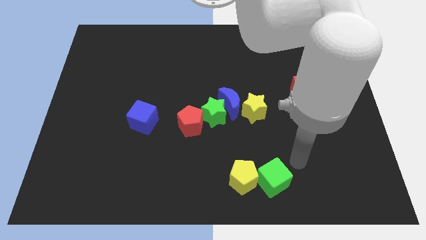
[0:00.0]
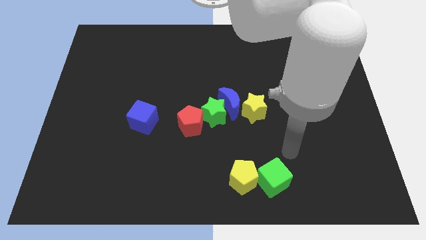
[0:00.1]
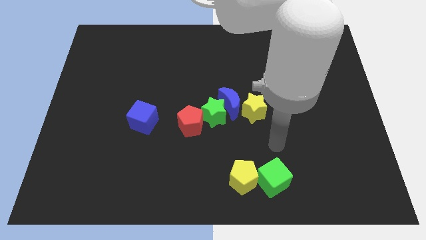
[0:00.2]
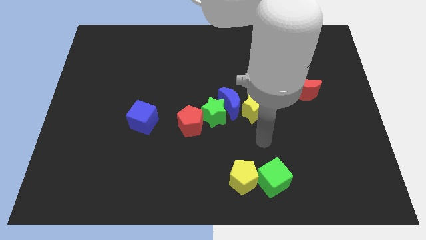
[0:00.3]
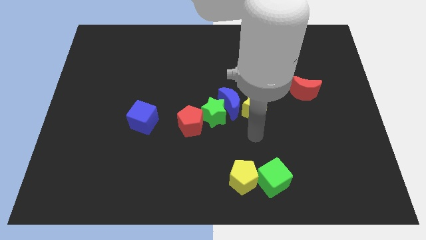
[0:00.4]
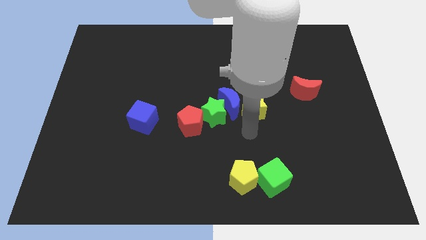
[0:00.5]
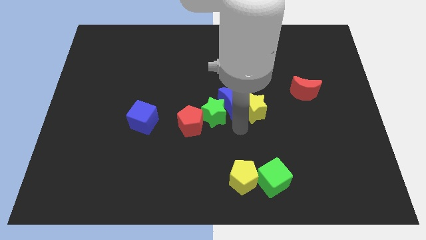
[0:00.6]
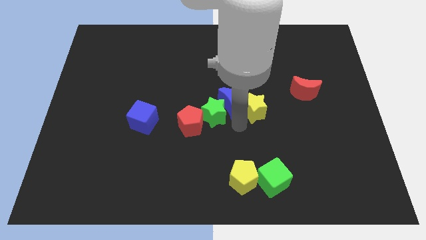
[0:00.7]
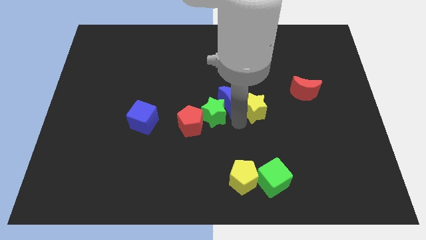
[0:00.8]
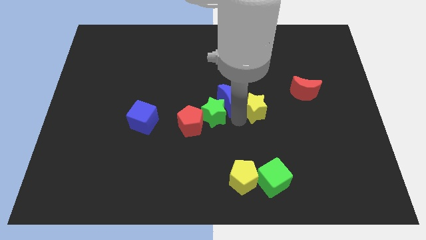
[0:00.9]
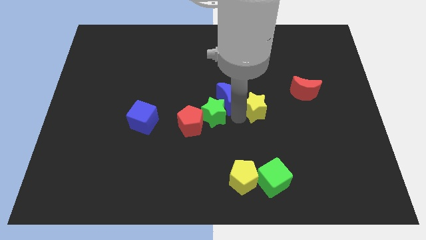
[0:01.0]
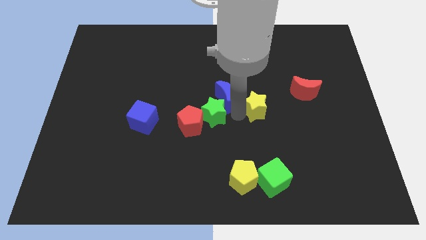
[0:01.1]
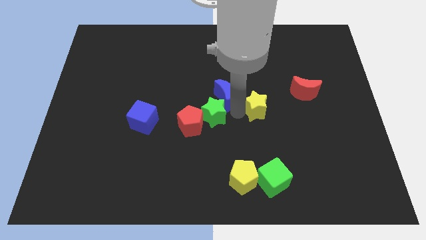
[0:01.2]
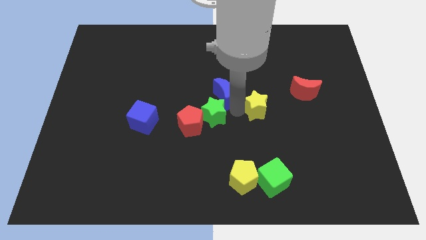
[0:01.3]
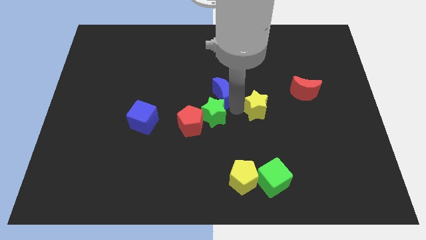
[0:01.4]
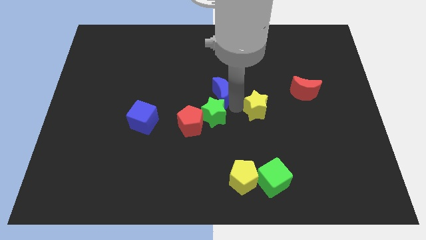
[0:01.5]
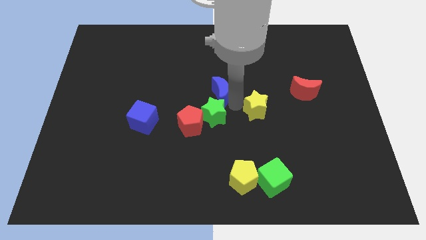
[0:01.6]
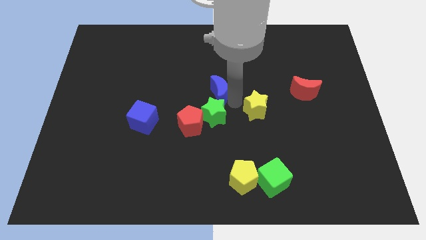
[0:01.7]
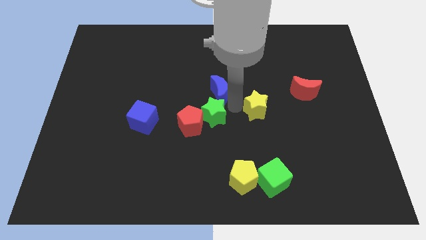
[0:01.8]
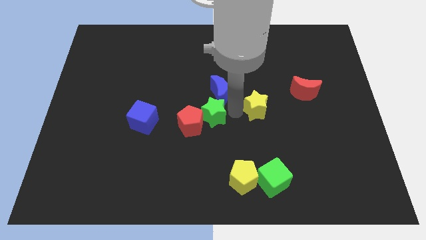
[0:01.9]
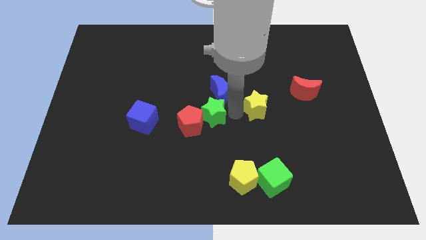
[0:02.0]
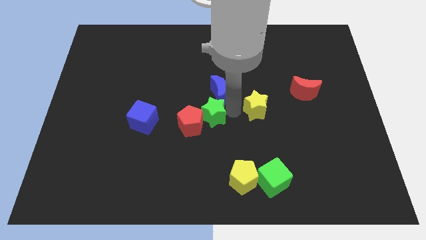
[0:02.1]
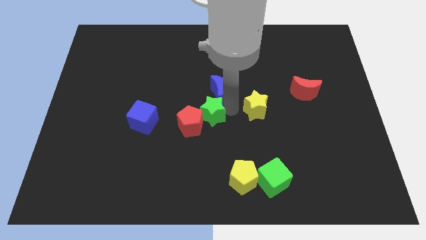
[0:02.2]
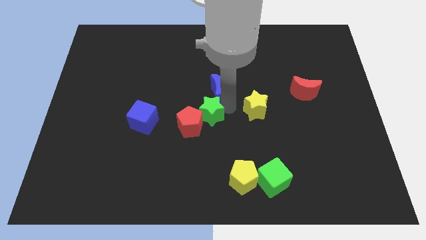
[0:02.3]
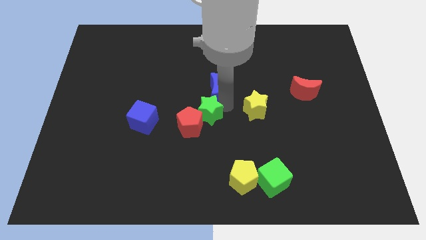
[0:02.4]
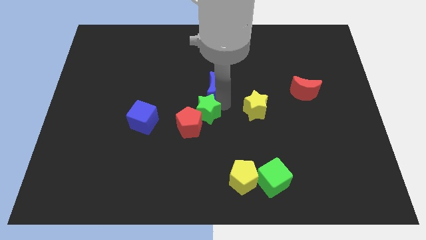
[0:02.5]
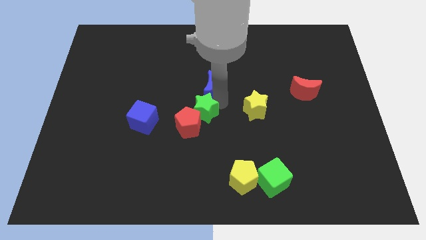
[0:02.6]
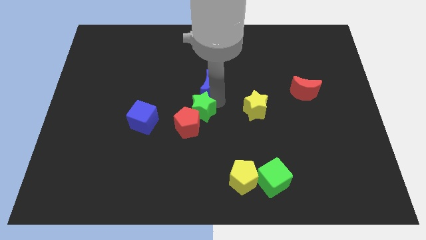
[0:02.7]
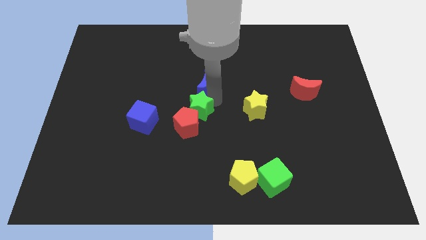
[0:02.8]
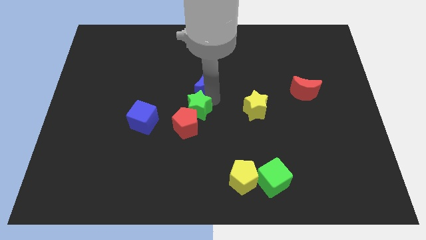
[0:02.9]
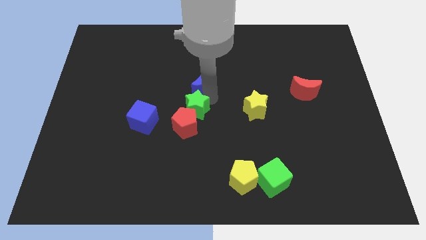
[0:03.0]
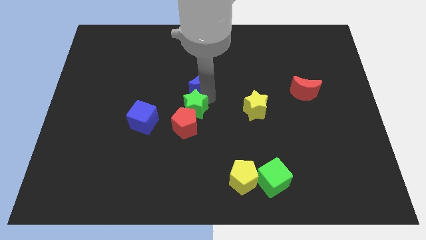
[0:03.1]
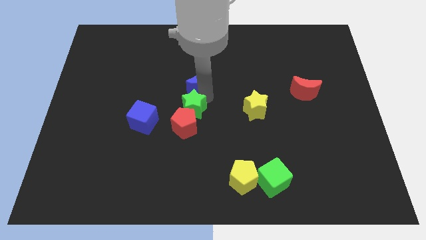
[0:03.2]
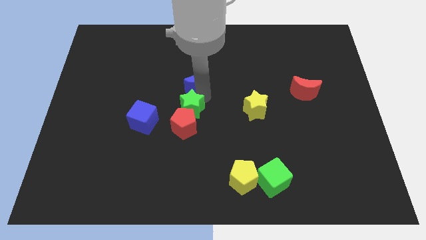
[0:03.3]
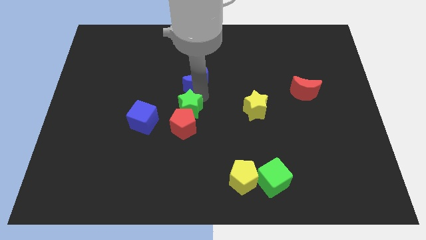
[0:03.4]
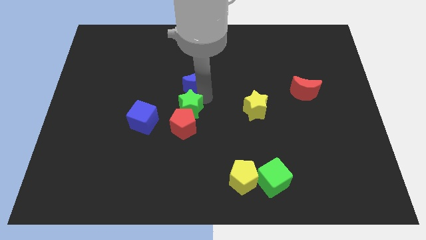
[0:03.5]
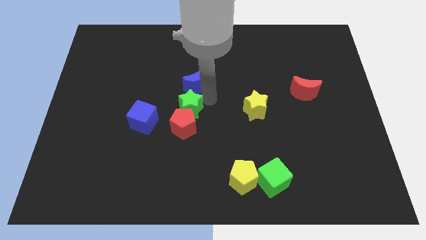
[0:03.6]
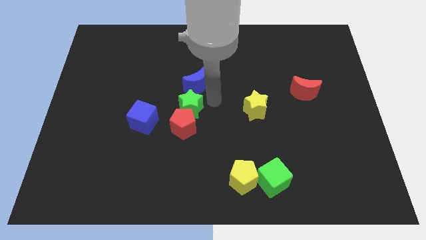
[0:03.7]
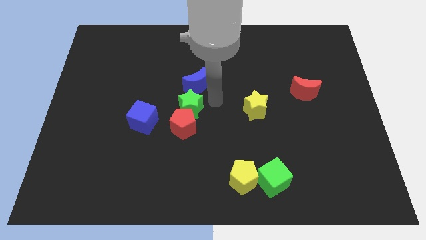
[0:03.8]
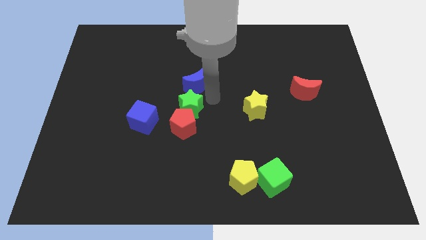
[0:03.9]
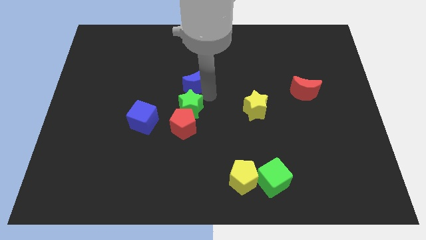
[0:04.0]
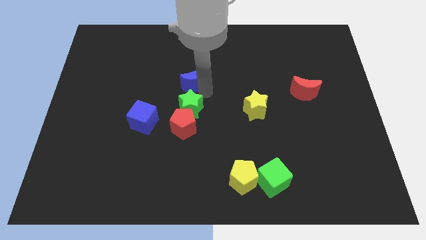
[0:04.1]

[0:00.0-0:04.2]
separate the blue moon from the green star and yellow star

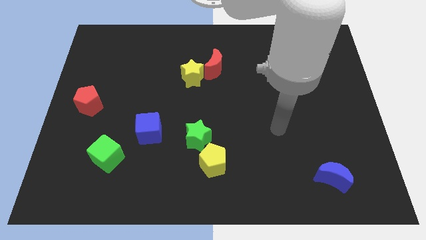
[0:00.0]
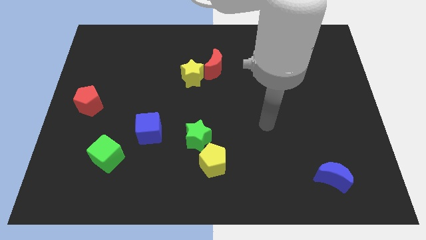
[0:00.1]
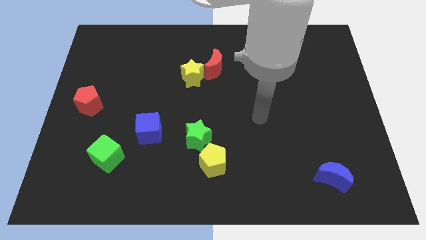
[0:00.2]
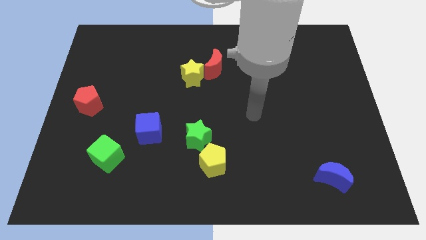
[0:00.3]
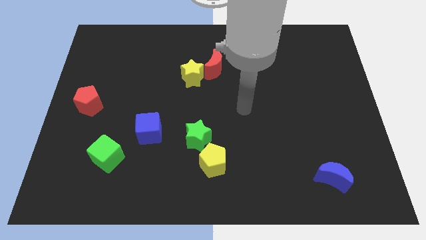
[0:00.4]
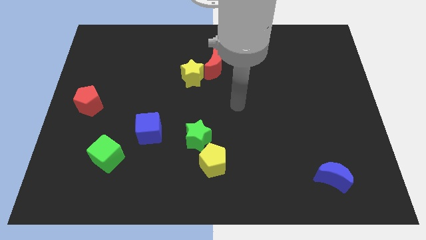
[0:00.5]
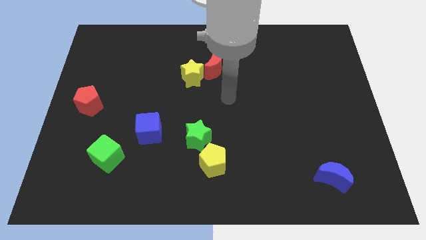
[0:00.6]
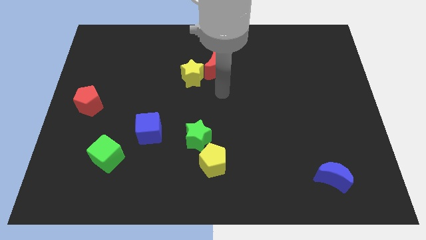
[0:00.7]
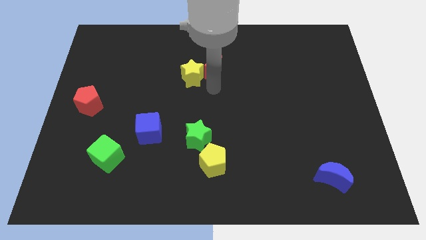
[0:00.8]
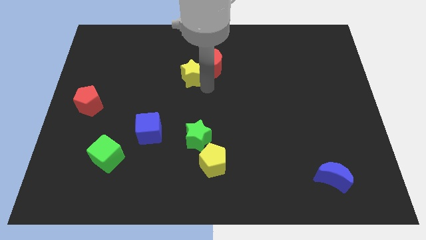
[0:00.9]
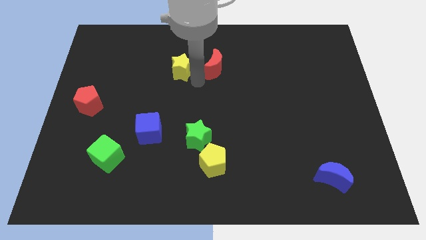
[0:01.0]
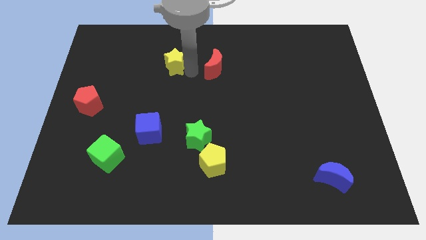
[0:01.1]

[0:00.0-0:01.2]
move the red moon away from the yellow star

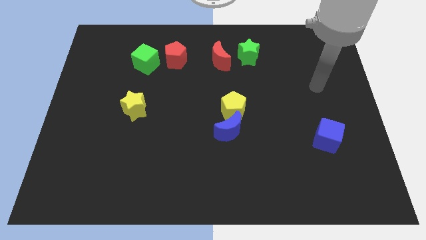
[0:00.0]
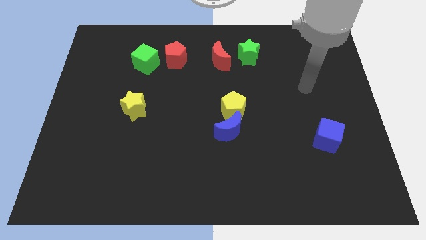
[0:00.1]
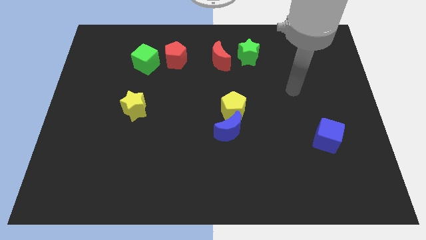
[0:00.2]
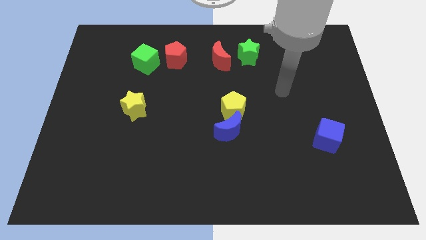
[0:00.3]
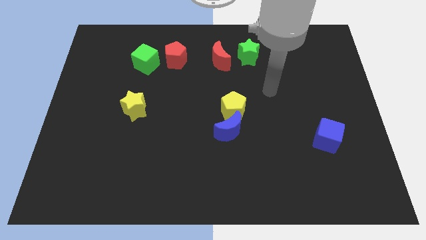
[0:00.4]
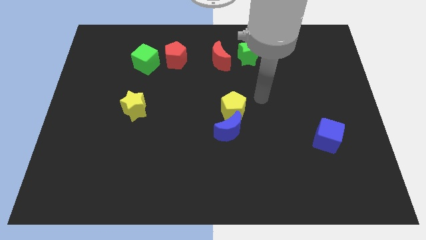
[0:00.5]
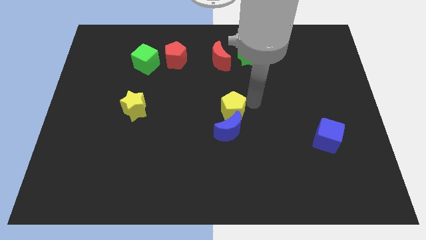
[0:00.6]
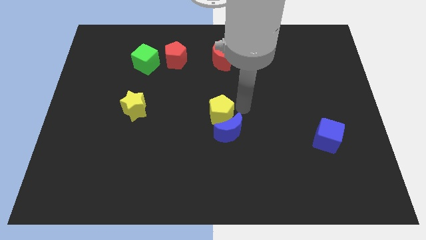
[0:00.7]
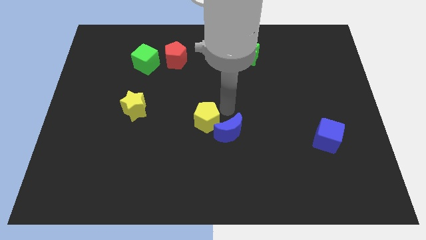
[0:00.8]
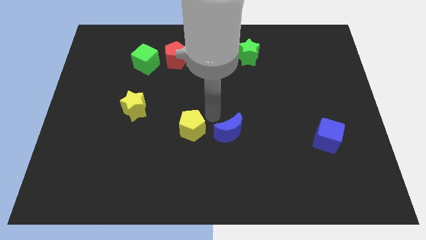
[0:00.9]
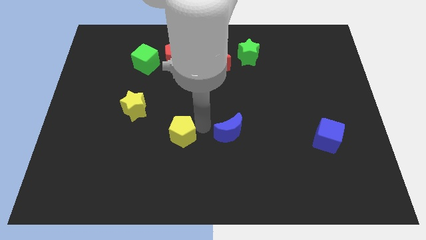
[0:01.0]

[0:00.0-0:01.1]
separate the blue moon from the yellow pentagon

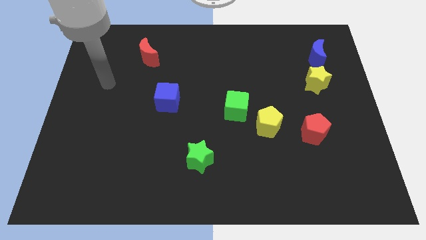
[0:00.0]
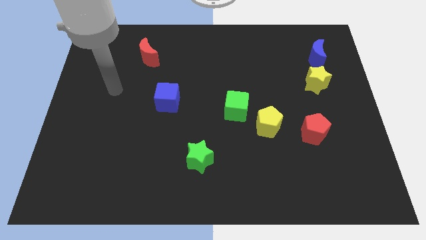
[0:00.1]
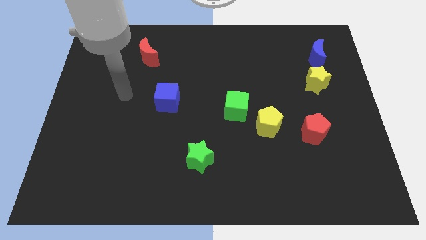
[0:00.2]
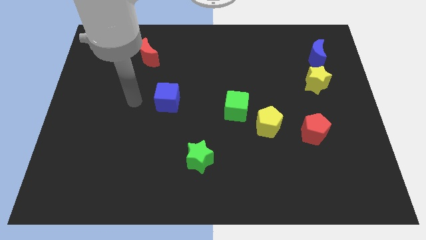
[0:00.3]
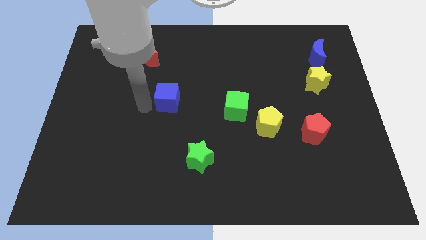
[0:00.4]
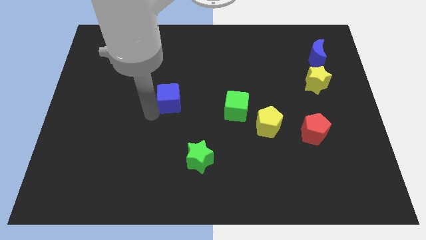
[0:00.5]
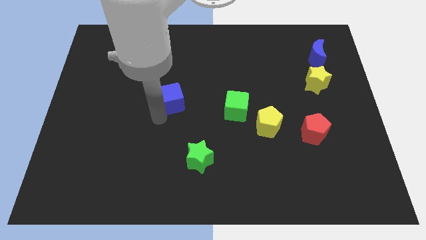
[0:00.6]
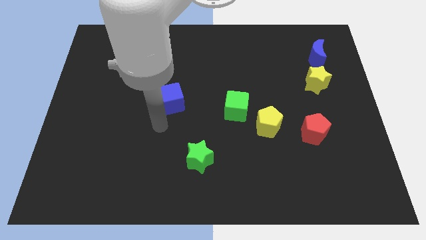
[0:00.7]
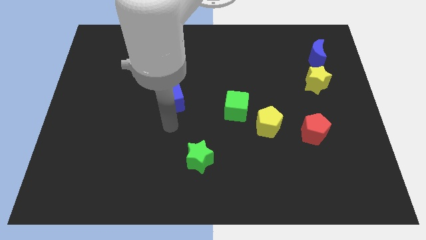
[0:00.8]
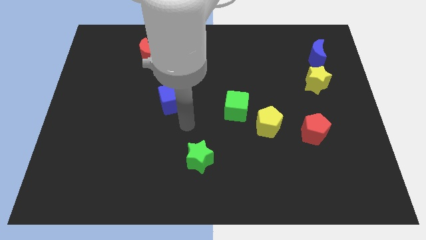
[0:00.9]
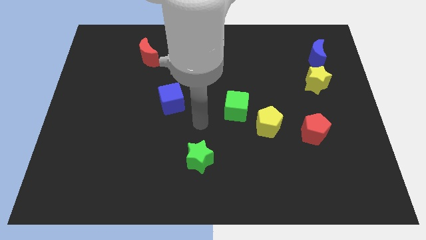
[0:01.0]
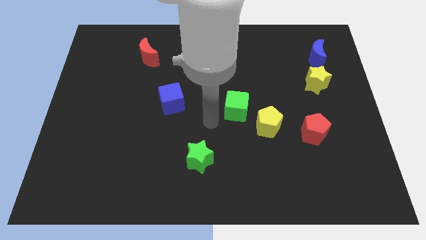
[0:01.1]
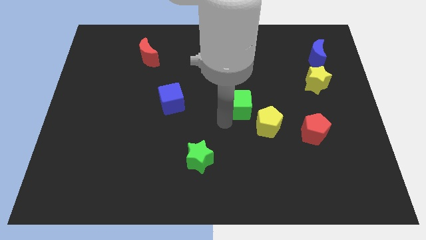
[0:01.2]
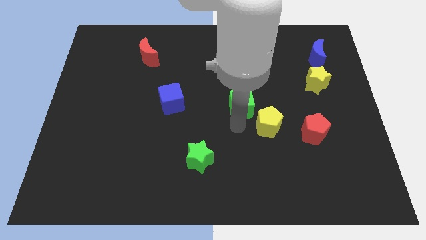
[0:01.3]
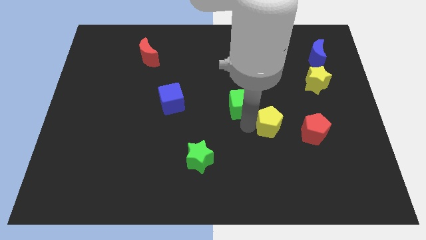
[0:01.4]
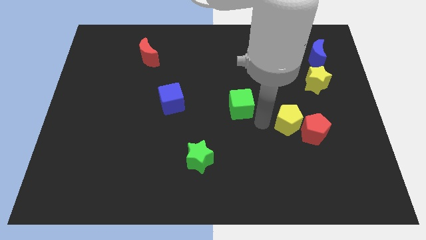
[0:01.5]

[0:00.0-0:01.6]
move the green cube away from the yellow pentagon

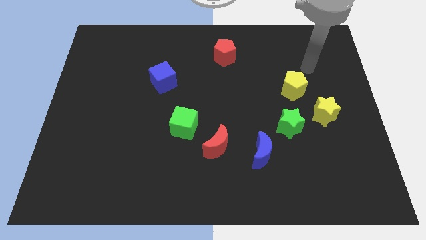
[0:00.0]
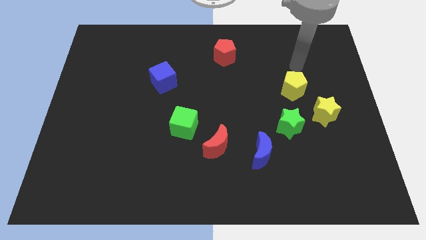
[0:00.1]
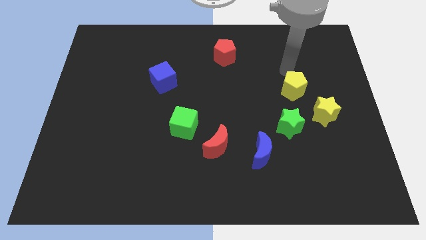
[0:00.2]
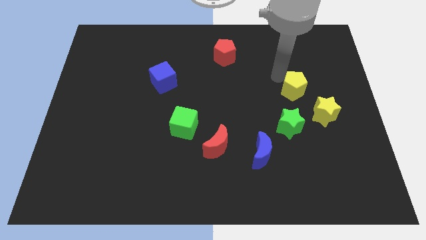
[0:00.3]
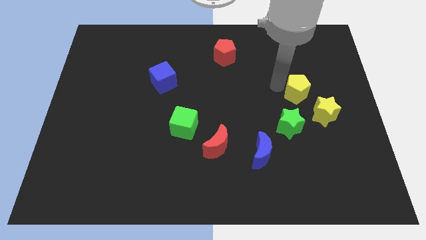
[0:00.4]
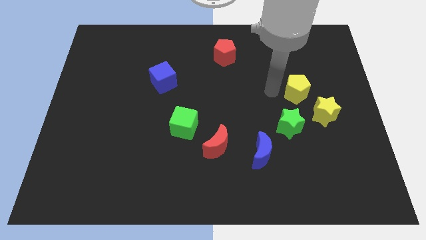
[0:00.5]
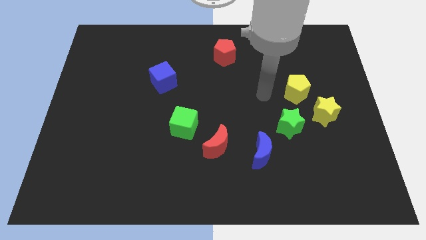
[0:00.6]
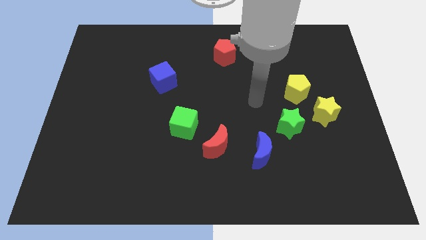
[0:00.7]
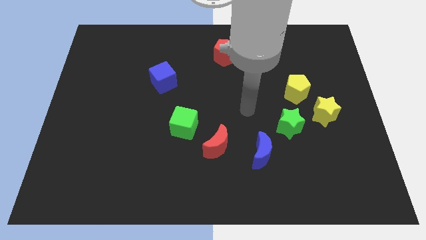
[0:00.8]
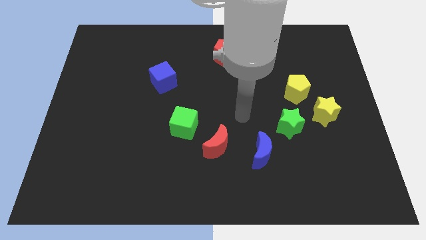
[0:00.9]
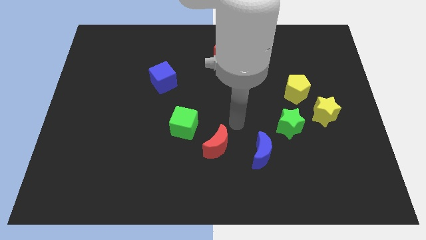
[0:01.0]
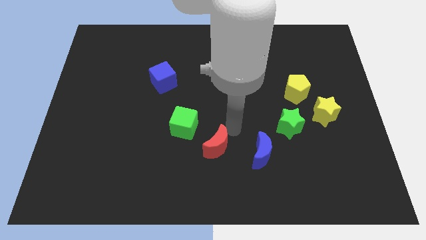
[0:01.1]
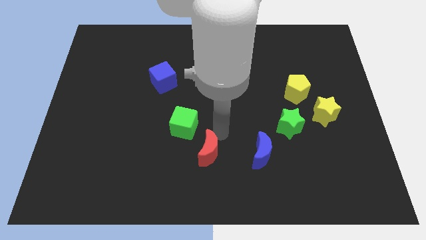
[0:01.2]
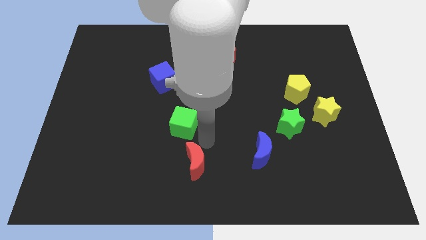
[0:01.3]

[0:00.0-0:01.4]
move the green cube away from the red moon

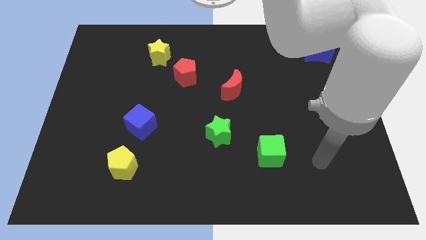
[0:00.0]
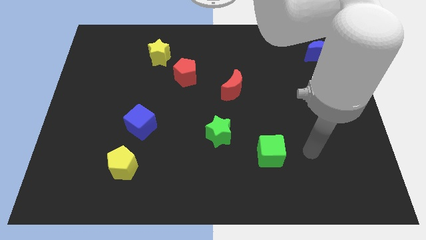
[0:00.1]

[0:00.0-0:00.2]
pull the red pentagon apart from the yellow star
